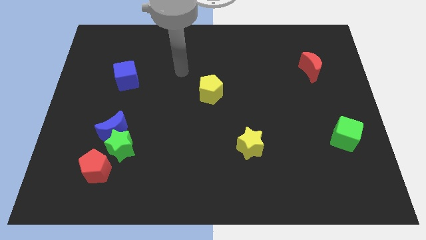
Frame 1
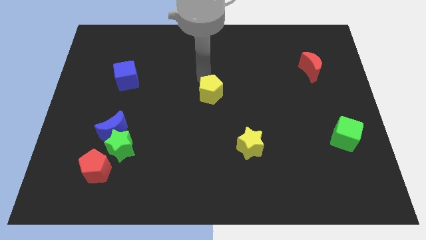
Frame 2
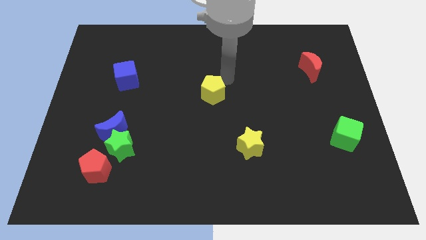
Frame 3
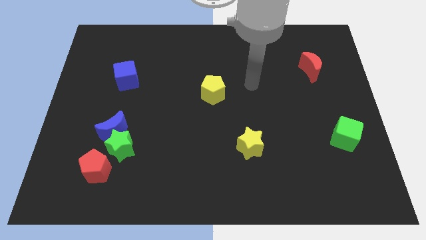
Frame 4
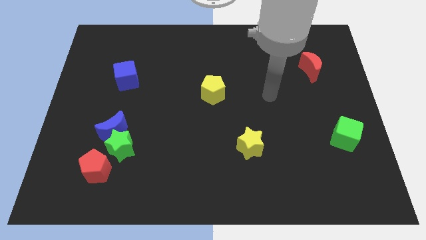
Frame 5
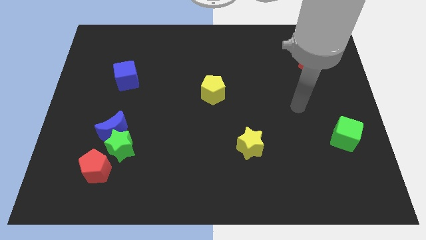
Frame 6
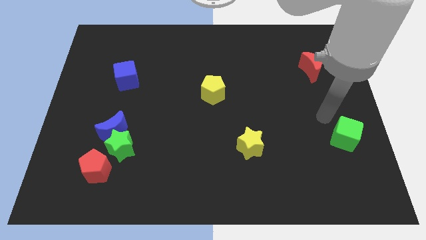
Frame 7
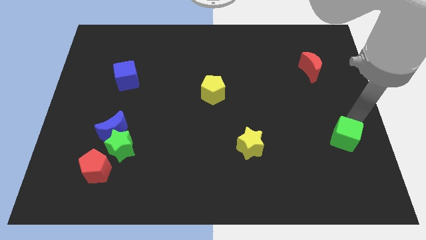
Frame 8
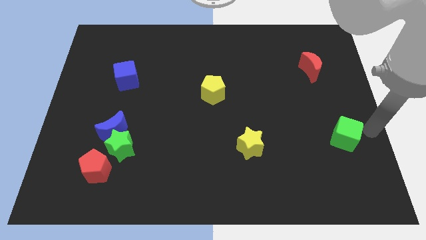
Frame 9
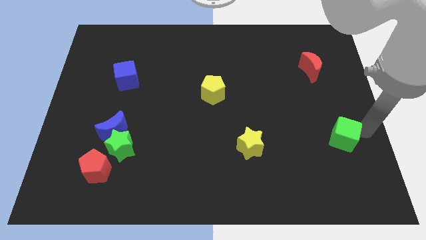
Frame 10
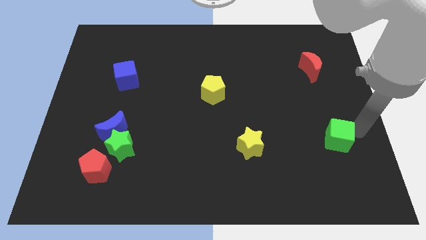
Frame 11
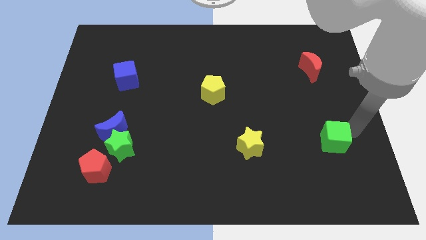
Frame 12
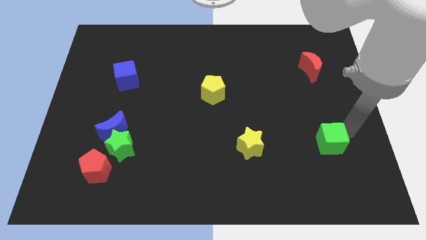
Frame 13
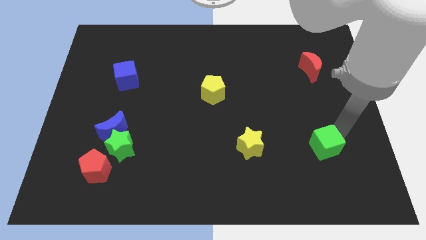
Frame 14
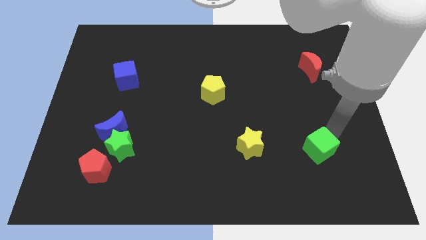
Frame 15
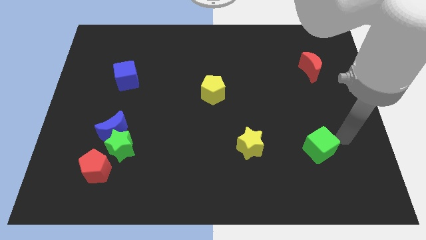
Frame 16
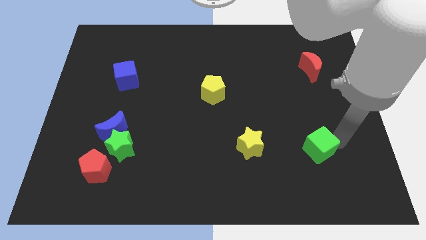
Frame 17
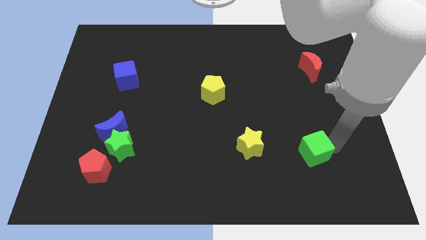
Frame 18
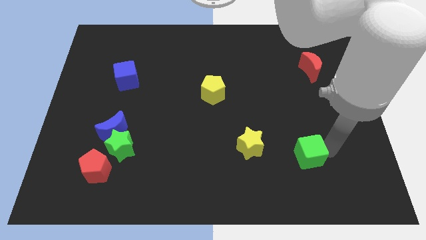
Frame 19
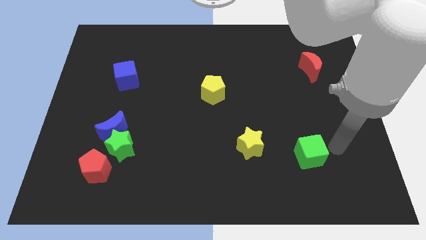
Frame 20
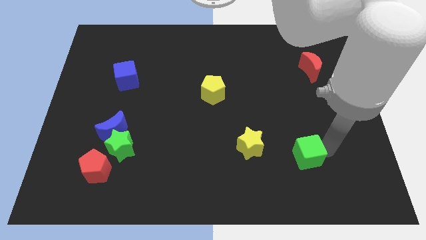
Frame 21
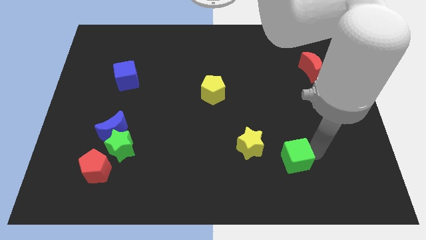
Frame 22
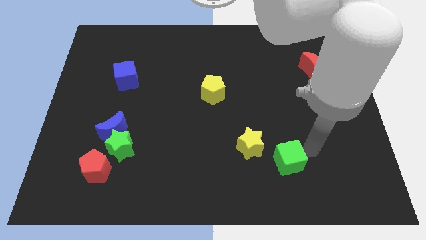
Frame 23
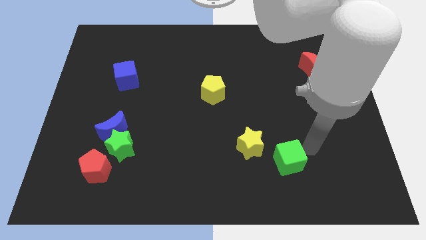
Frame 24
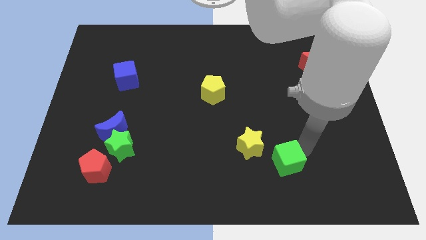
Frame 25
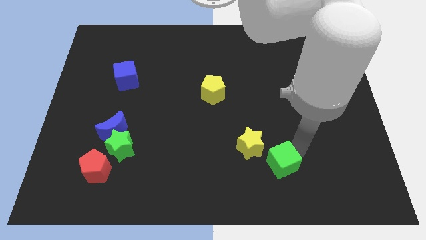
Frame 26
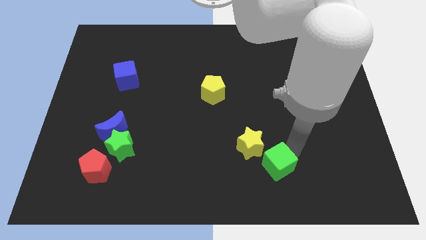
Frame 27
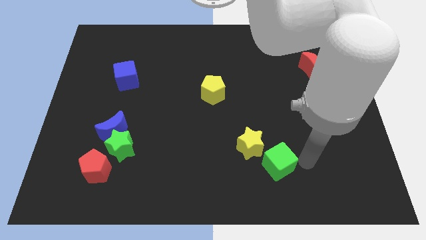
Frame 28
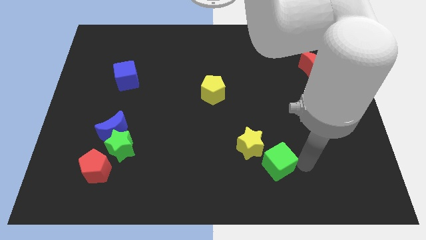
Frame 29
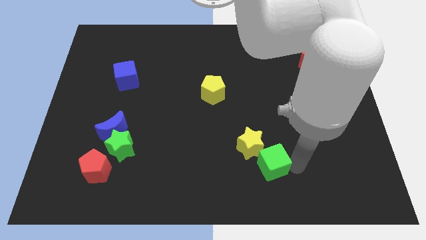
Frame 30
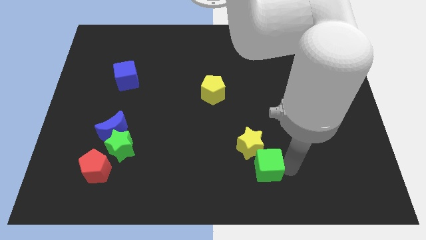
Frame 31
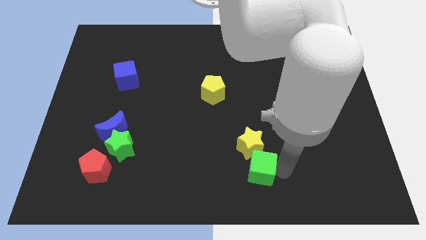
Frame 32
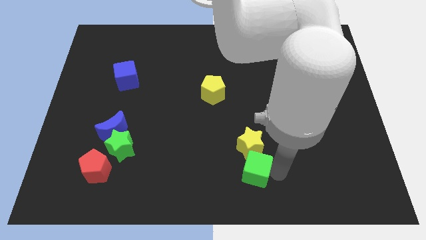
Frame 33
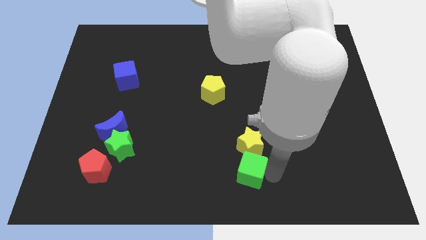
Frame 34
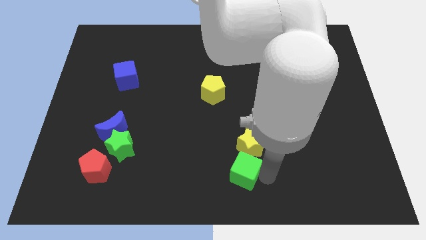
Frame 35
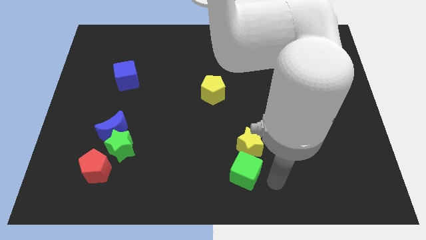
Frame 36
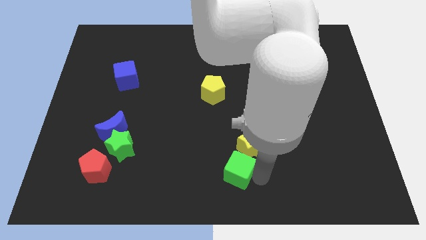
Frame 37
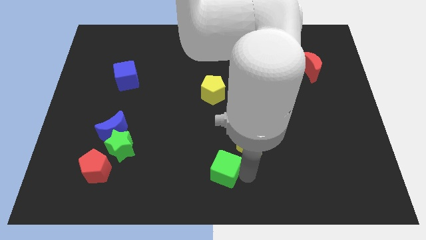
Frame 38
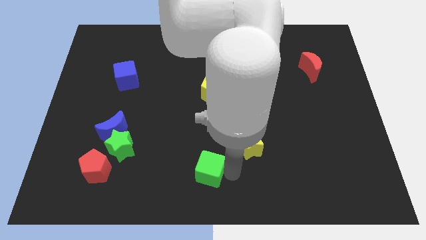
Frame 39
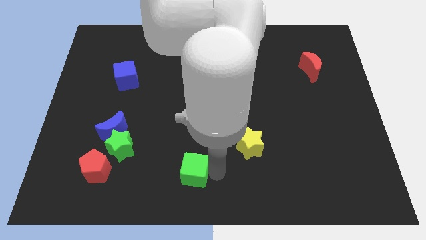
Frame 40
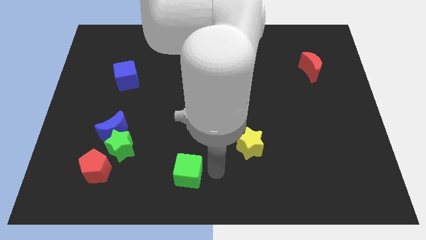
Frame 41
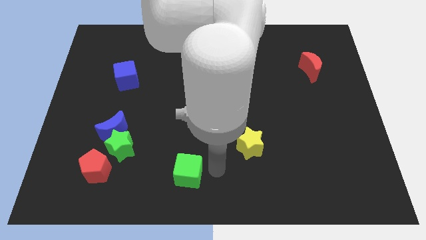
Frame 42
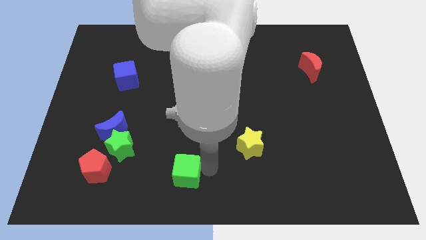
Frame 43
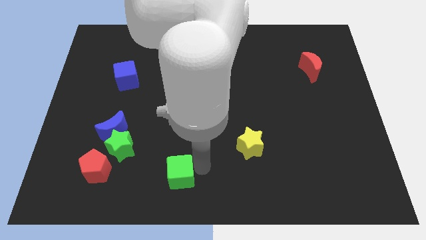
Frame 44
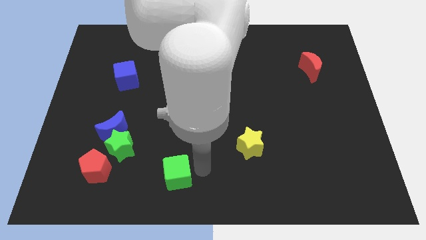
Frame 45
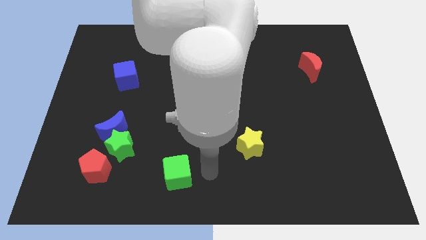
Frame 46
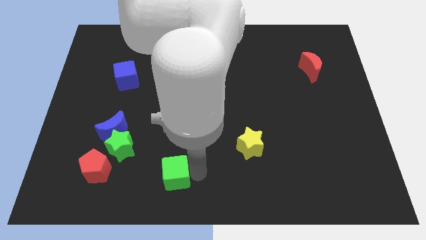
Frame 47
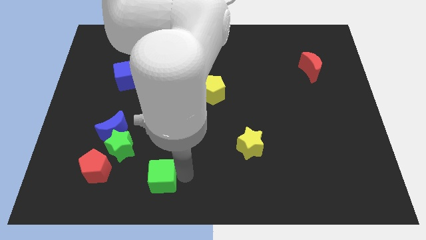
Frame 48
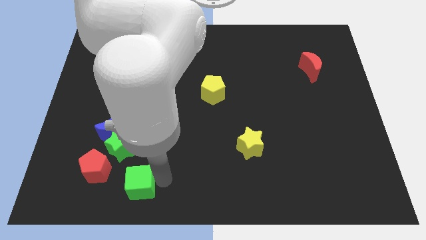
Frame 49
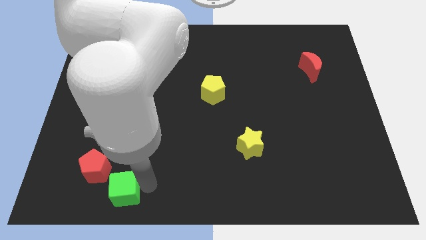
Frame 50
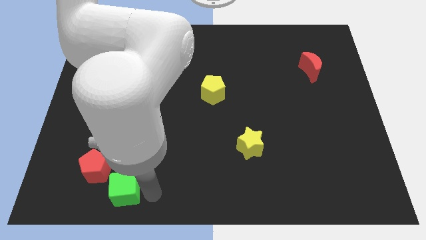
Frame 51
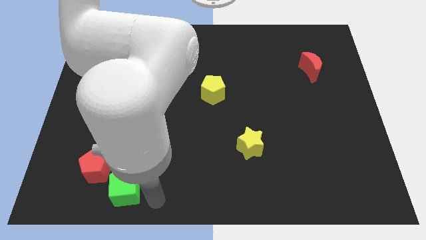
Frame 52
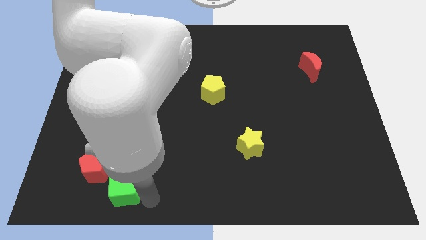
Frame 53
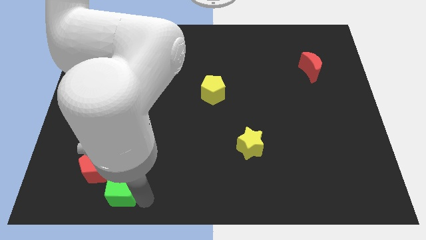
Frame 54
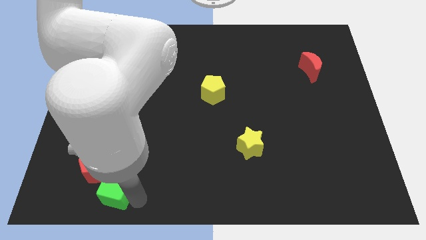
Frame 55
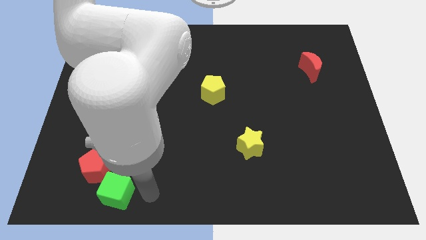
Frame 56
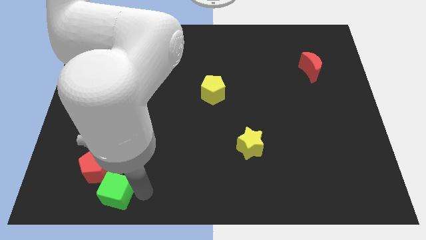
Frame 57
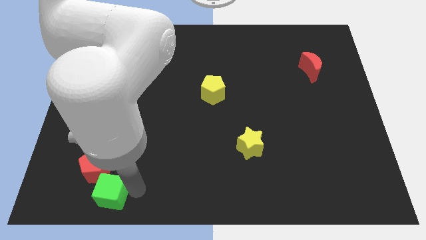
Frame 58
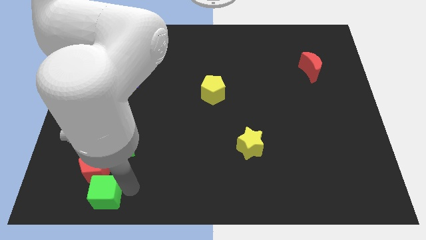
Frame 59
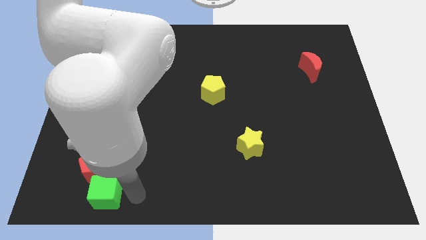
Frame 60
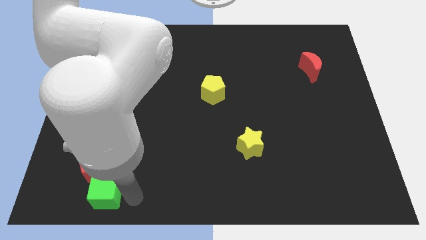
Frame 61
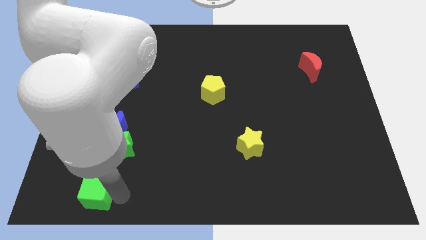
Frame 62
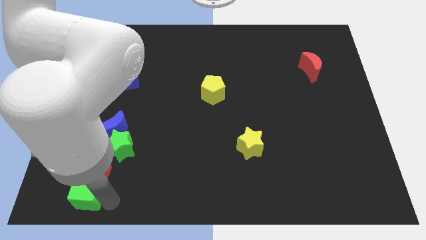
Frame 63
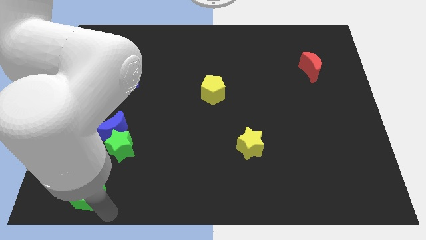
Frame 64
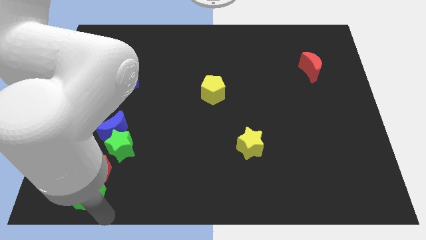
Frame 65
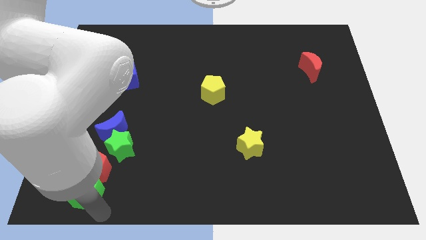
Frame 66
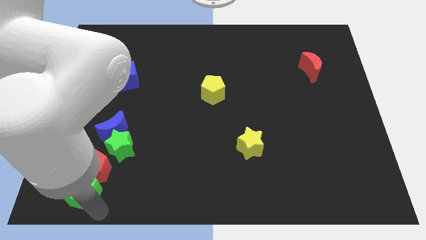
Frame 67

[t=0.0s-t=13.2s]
put the green cube to the bottom left of the green star
